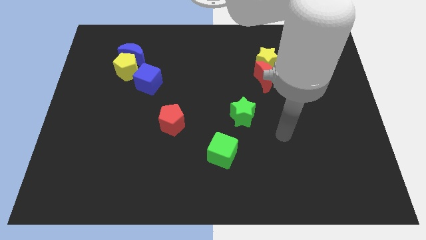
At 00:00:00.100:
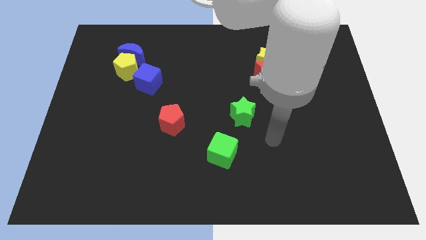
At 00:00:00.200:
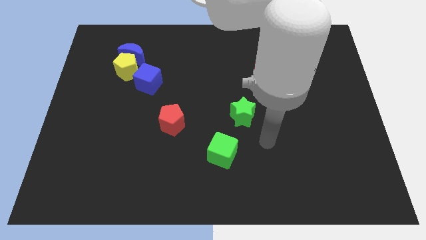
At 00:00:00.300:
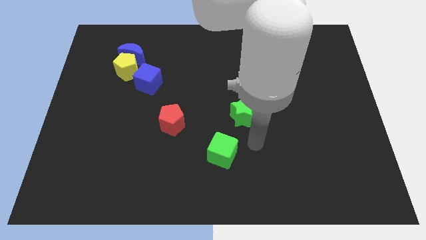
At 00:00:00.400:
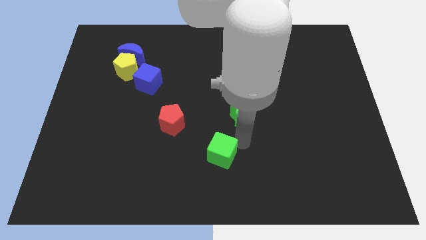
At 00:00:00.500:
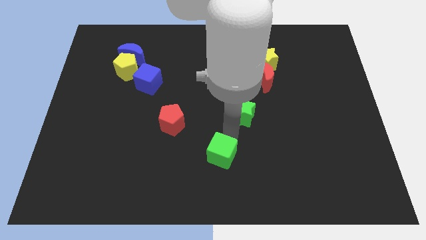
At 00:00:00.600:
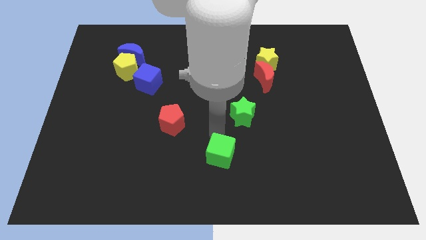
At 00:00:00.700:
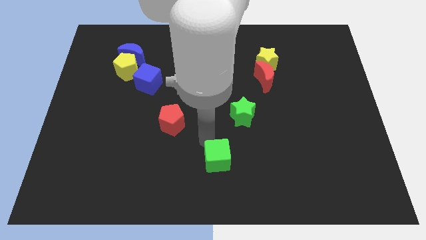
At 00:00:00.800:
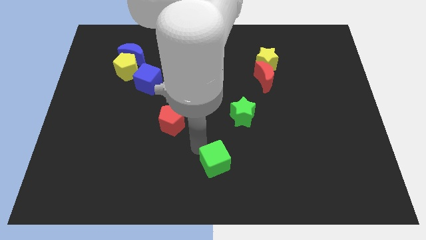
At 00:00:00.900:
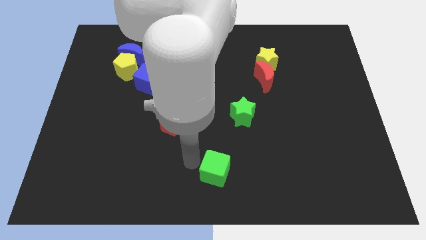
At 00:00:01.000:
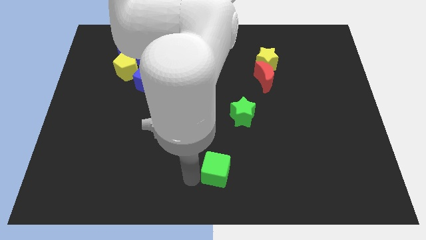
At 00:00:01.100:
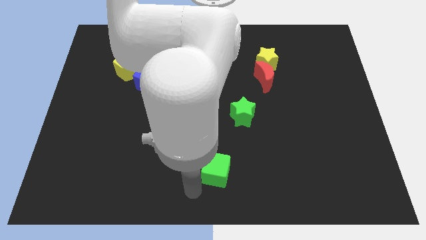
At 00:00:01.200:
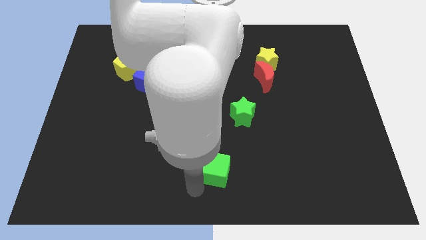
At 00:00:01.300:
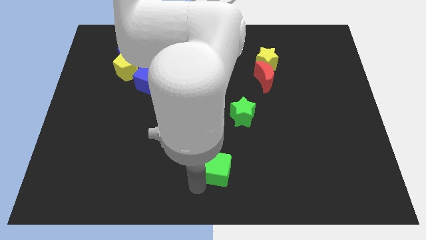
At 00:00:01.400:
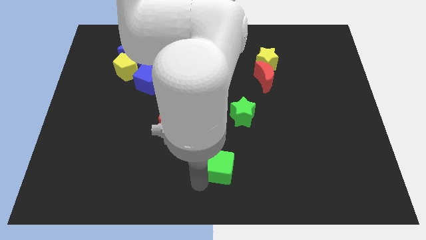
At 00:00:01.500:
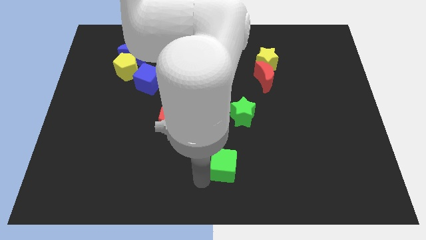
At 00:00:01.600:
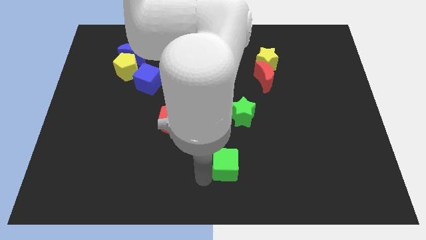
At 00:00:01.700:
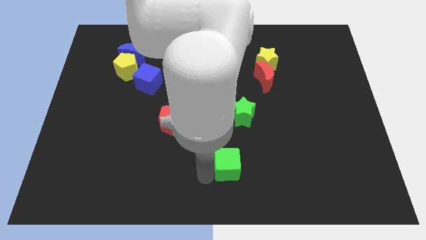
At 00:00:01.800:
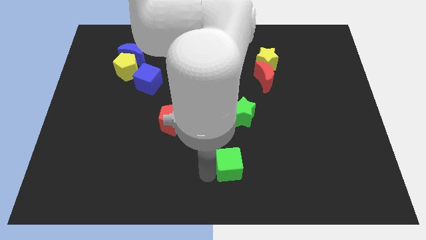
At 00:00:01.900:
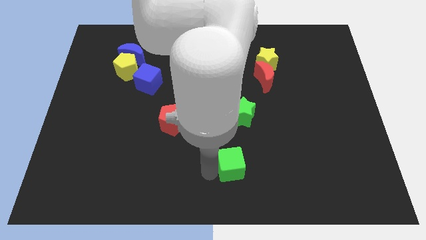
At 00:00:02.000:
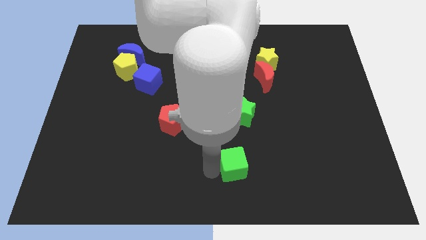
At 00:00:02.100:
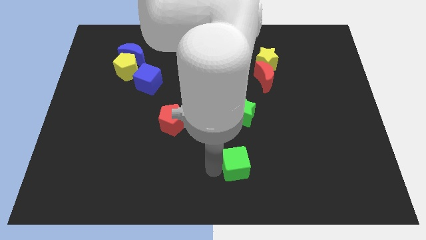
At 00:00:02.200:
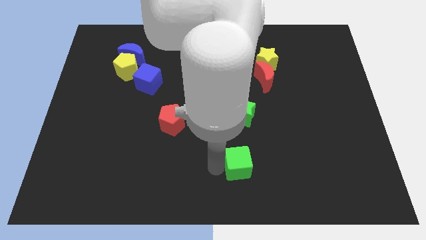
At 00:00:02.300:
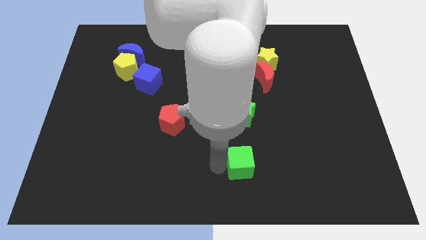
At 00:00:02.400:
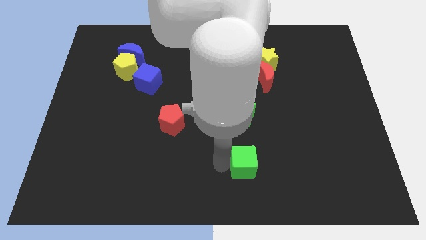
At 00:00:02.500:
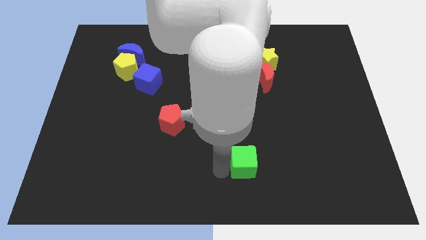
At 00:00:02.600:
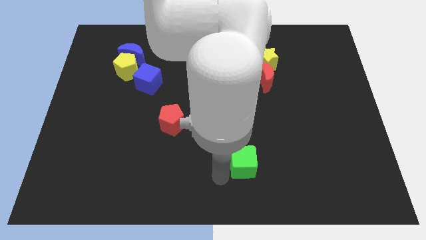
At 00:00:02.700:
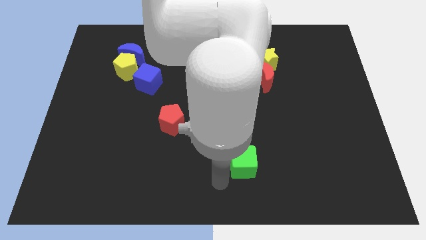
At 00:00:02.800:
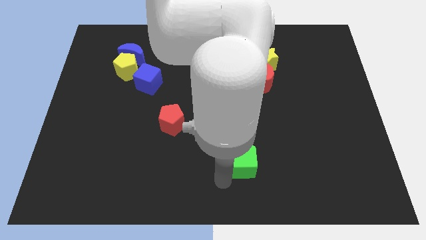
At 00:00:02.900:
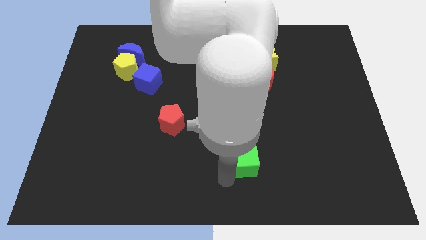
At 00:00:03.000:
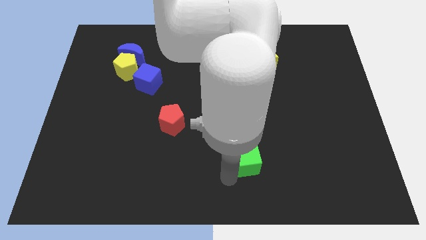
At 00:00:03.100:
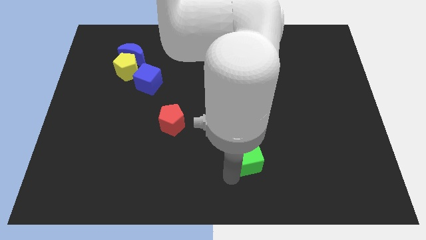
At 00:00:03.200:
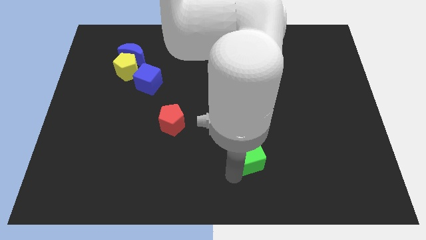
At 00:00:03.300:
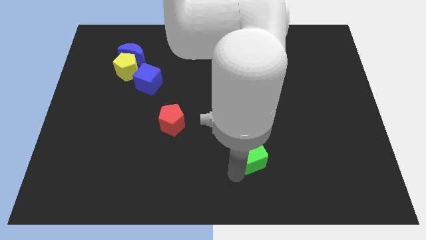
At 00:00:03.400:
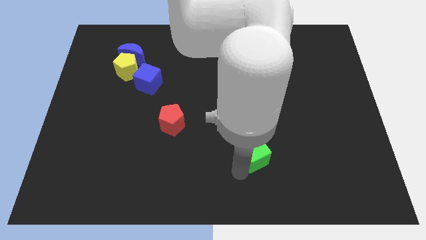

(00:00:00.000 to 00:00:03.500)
push the green cube a little right

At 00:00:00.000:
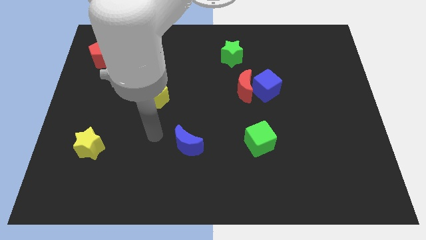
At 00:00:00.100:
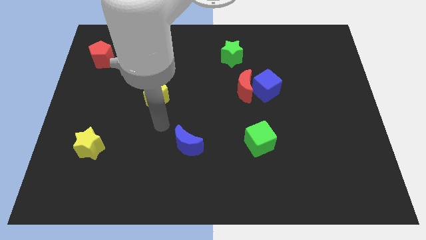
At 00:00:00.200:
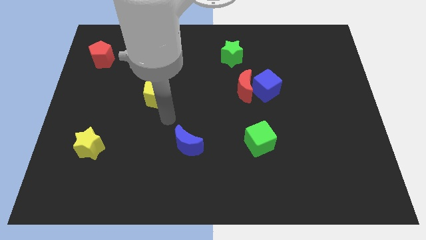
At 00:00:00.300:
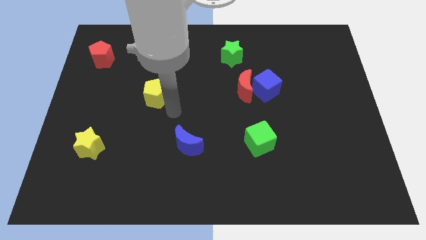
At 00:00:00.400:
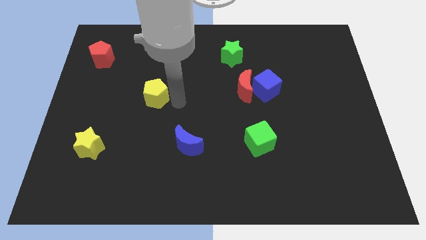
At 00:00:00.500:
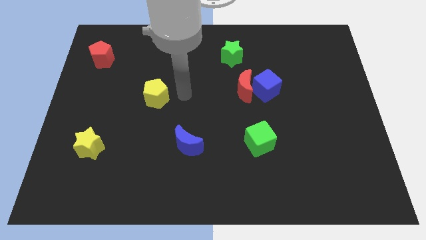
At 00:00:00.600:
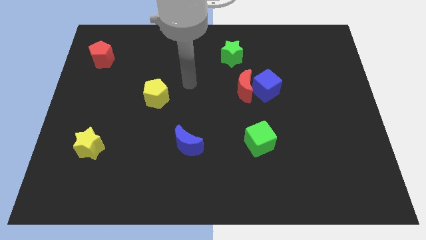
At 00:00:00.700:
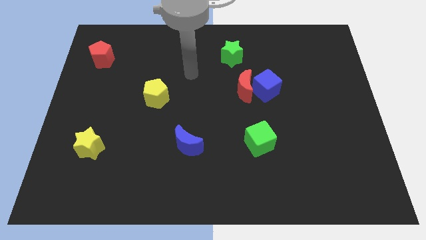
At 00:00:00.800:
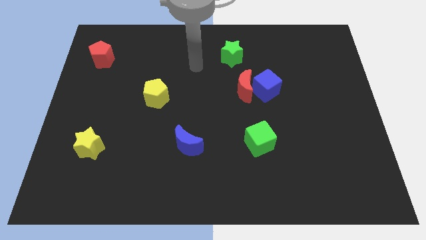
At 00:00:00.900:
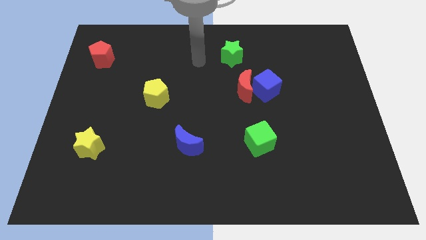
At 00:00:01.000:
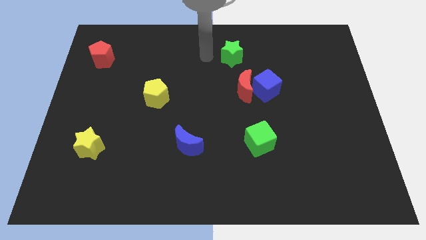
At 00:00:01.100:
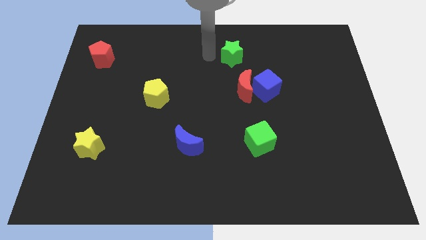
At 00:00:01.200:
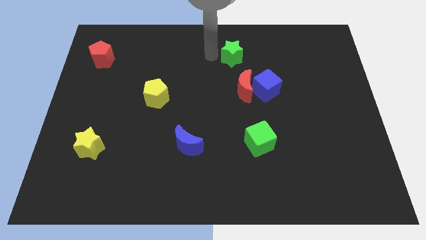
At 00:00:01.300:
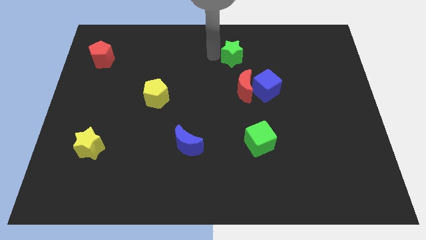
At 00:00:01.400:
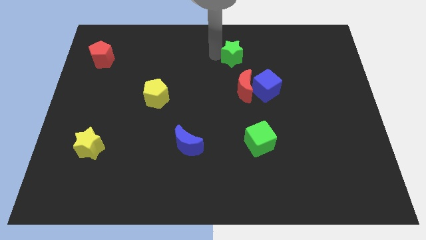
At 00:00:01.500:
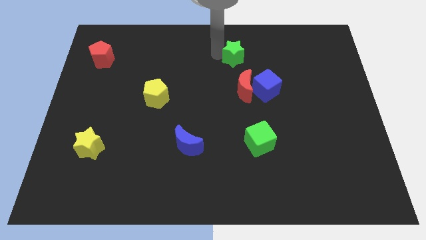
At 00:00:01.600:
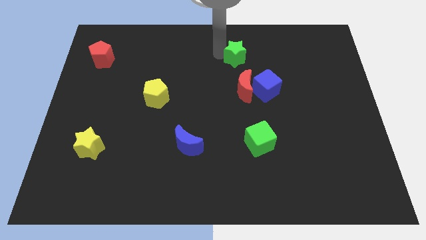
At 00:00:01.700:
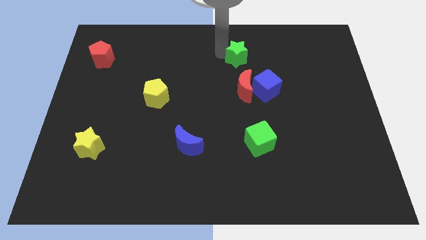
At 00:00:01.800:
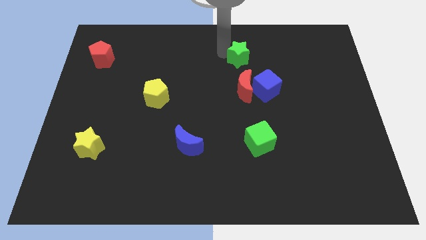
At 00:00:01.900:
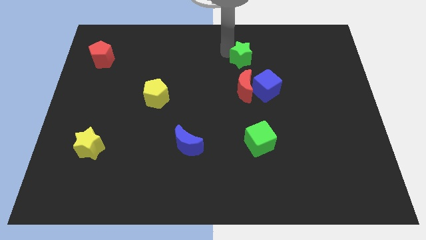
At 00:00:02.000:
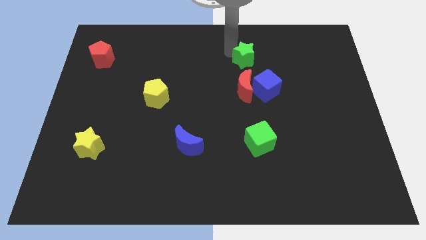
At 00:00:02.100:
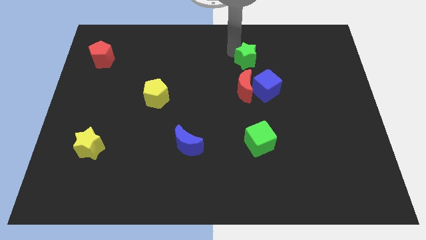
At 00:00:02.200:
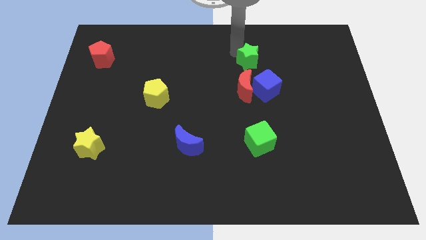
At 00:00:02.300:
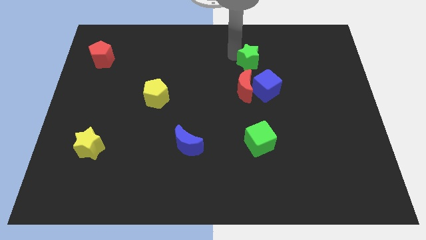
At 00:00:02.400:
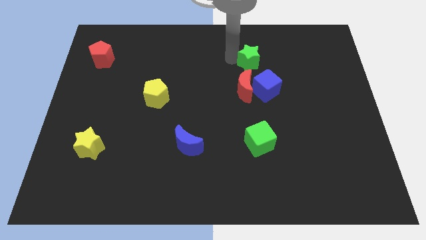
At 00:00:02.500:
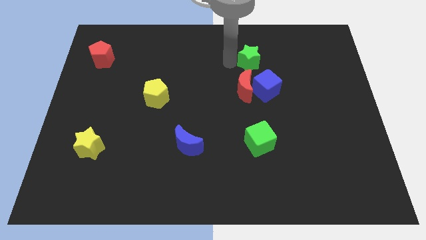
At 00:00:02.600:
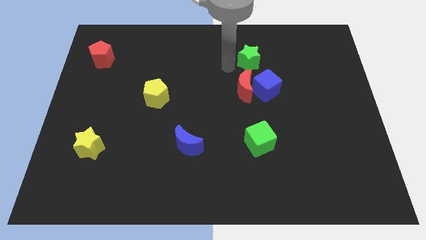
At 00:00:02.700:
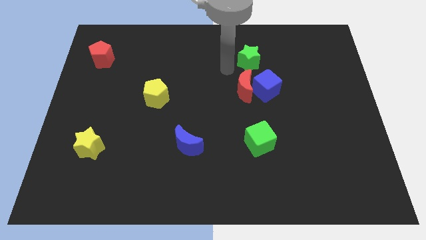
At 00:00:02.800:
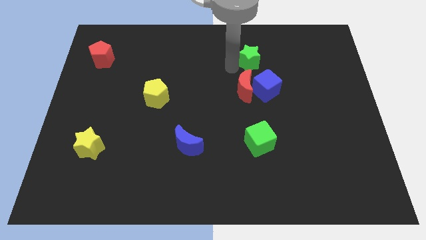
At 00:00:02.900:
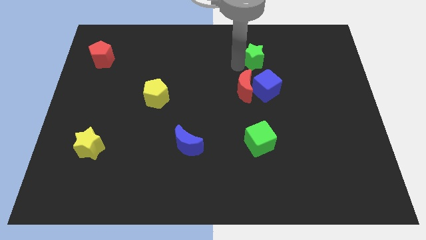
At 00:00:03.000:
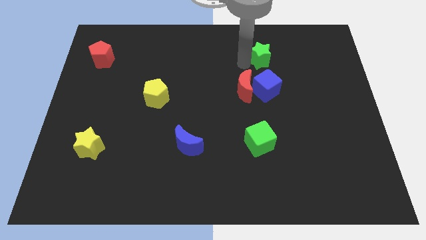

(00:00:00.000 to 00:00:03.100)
move the green star a bit to the right

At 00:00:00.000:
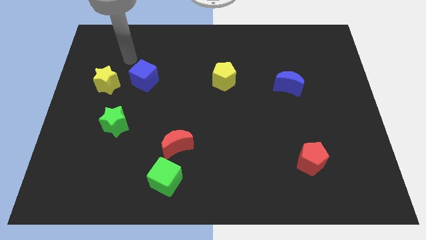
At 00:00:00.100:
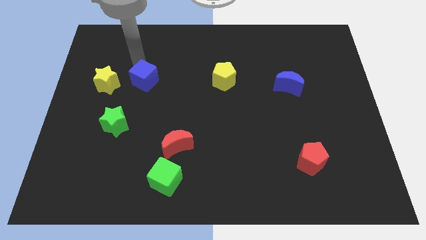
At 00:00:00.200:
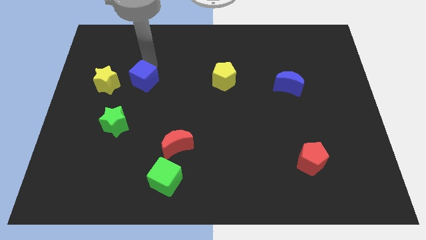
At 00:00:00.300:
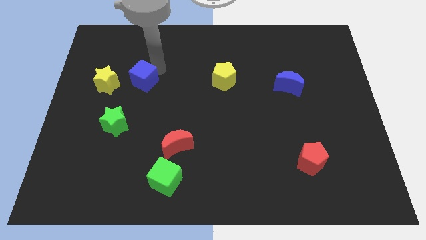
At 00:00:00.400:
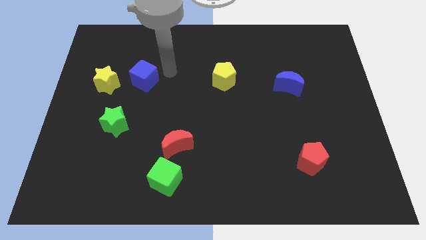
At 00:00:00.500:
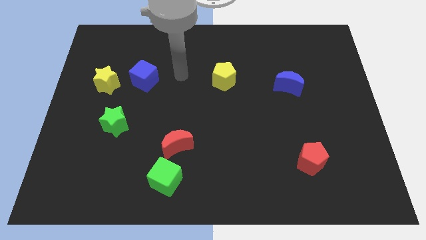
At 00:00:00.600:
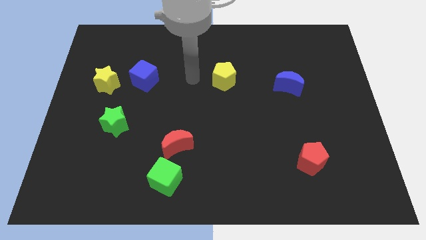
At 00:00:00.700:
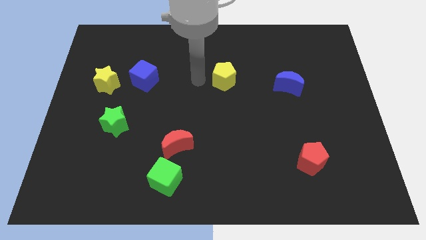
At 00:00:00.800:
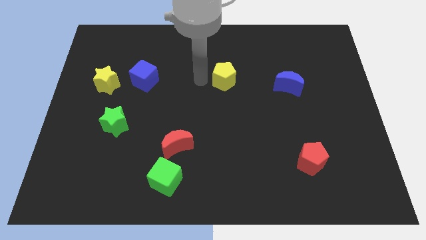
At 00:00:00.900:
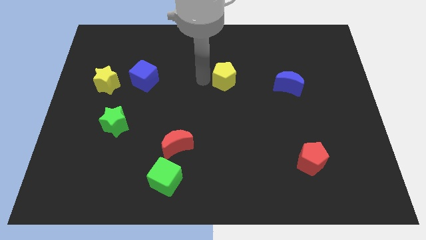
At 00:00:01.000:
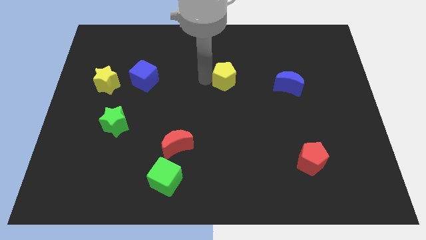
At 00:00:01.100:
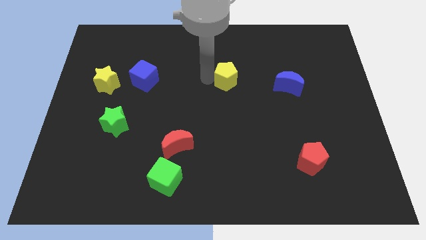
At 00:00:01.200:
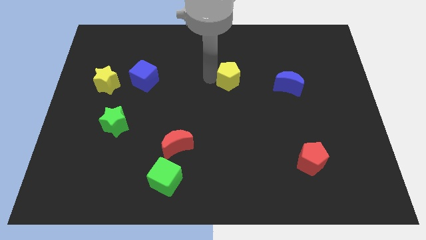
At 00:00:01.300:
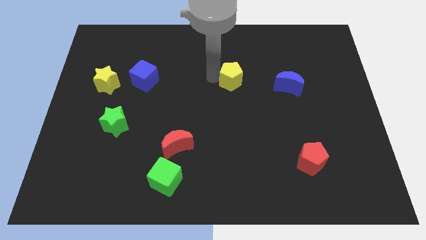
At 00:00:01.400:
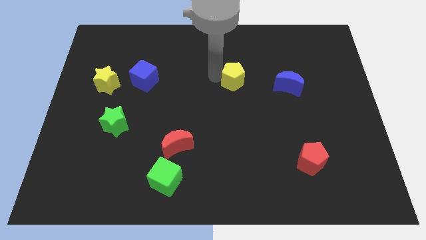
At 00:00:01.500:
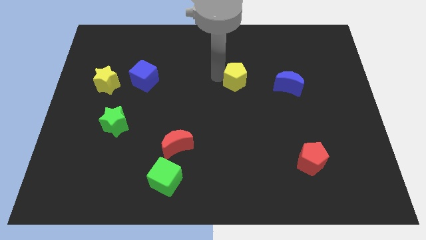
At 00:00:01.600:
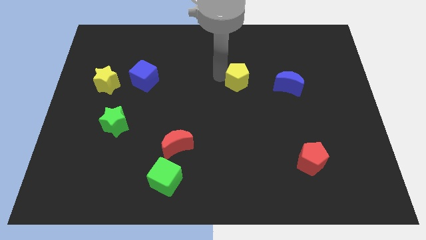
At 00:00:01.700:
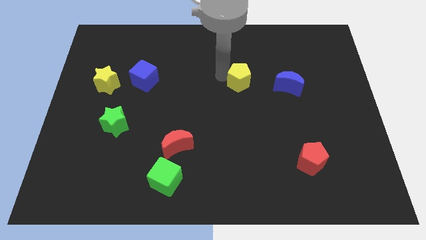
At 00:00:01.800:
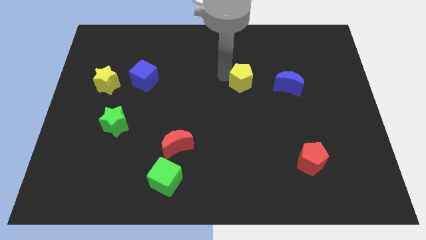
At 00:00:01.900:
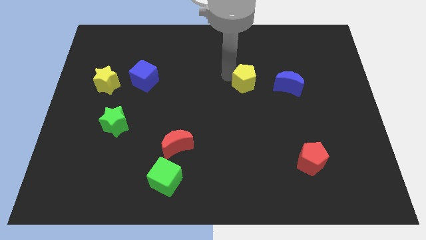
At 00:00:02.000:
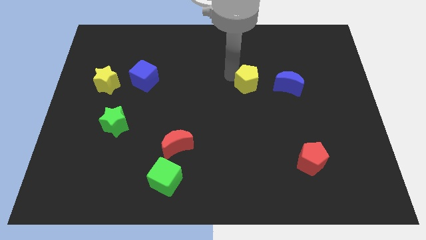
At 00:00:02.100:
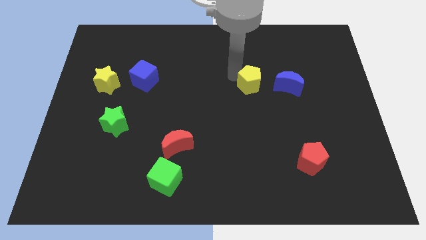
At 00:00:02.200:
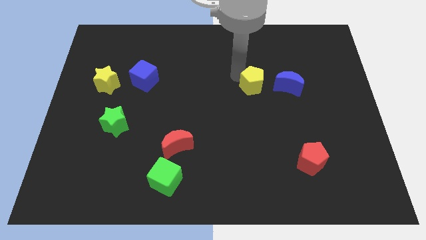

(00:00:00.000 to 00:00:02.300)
move the yellow pentagon right a little bit
